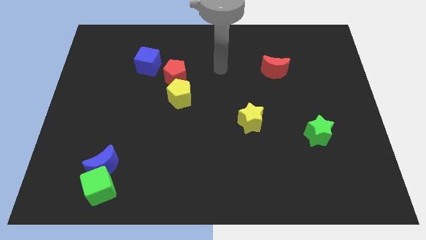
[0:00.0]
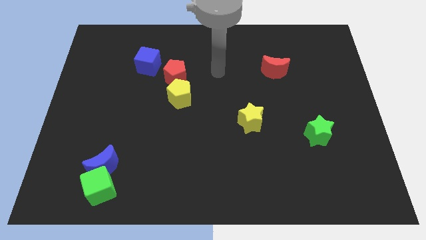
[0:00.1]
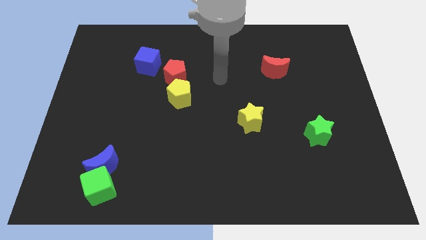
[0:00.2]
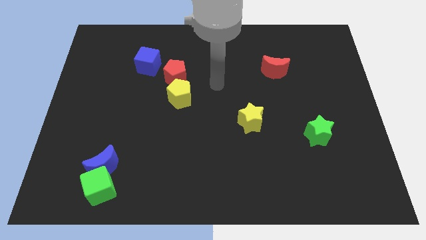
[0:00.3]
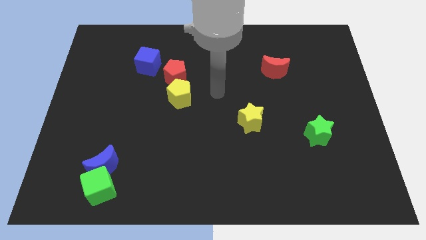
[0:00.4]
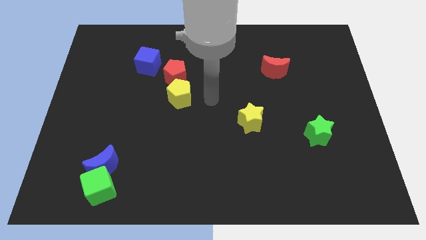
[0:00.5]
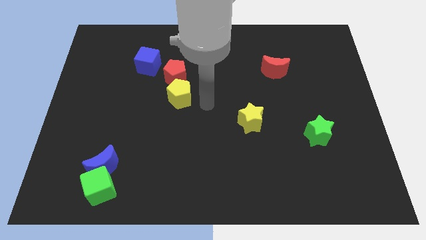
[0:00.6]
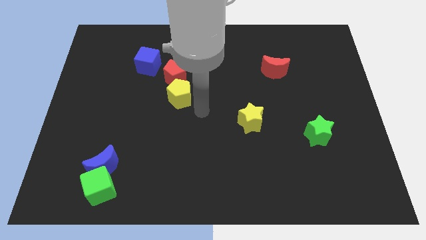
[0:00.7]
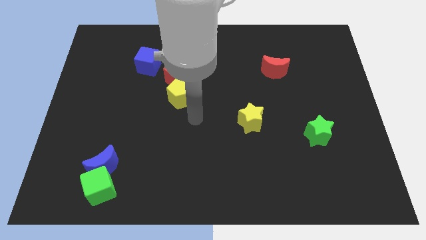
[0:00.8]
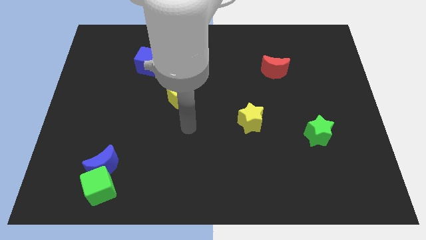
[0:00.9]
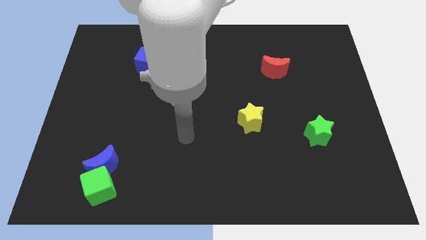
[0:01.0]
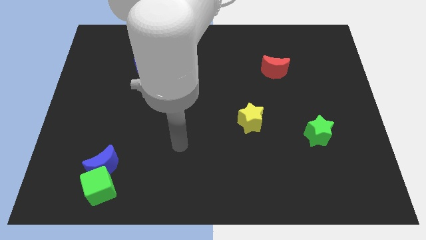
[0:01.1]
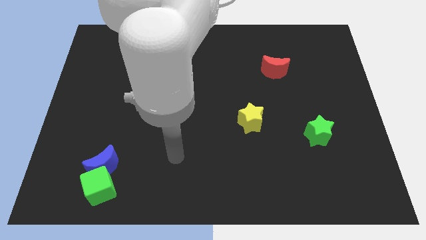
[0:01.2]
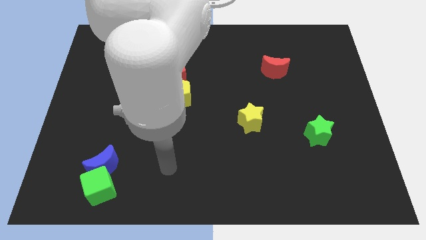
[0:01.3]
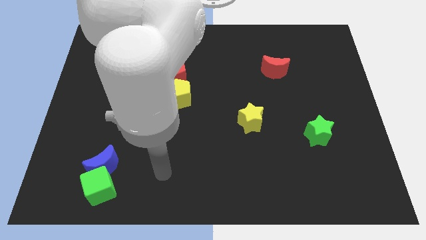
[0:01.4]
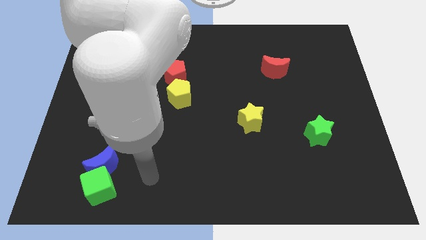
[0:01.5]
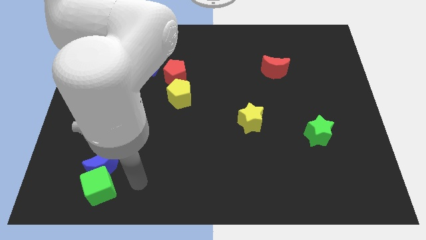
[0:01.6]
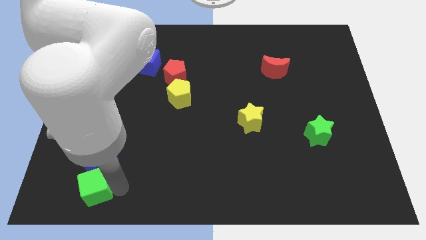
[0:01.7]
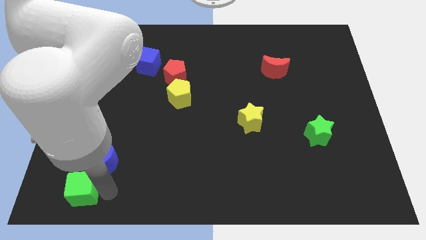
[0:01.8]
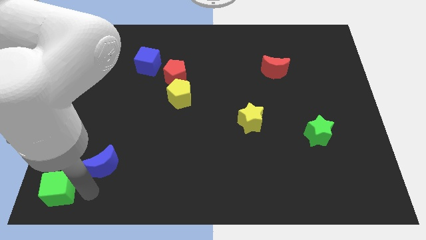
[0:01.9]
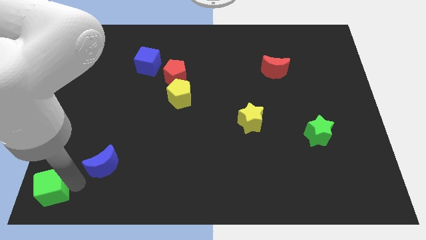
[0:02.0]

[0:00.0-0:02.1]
move the blue moon away from the green cube

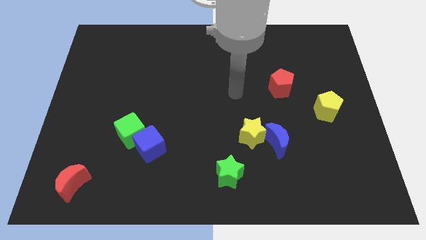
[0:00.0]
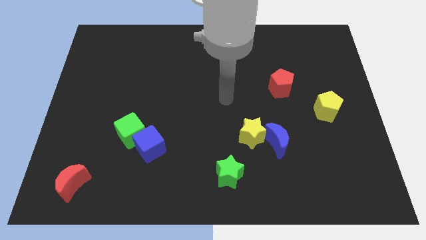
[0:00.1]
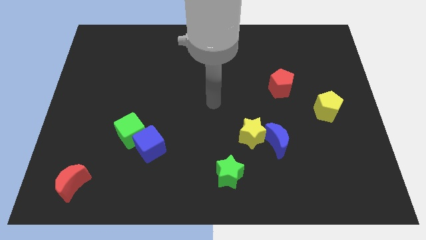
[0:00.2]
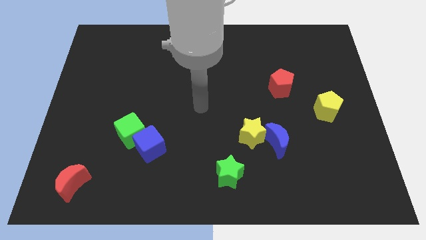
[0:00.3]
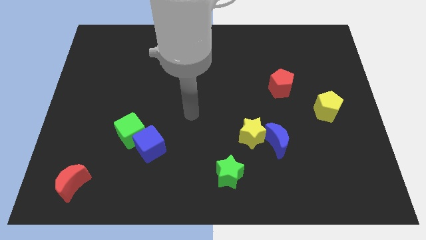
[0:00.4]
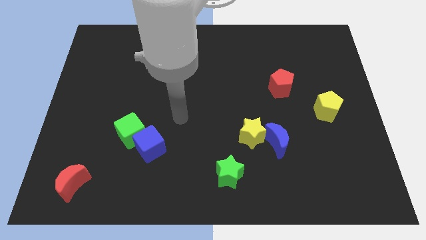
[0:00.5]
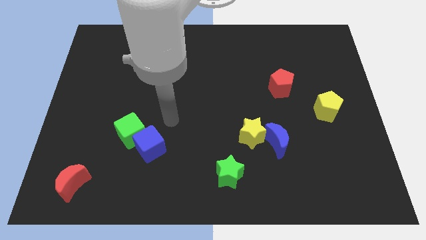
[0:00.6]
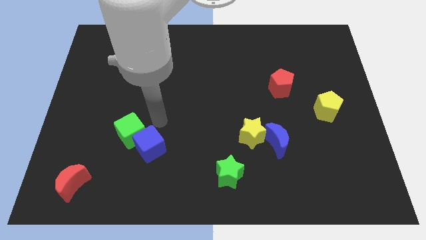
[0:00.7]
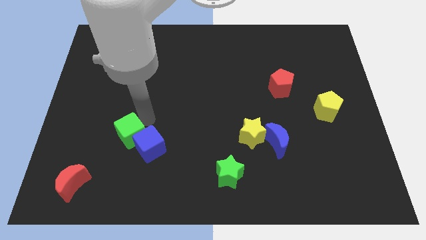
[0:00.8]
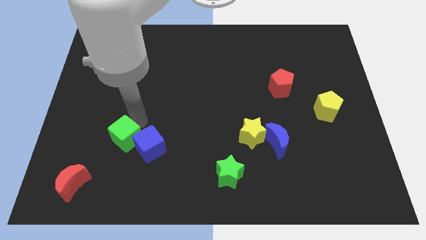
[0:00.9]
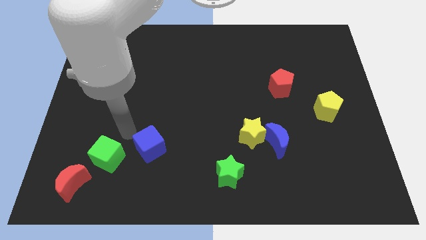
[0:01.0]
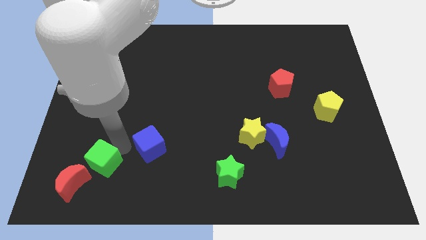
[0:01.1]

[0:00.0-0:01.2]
separate the blue cube from the green cube

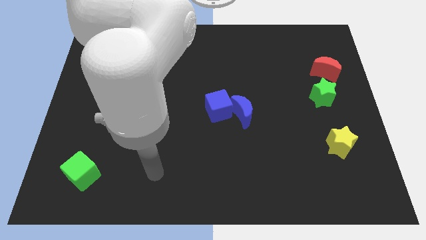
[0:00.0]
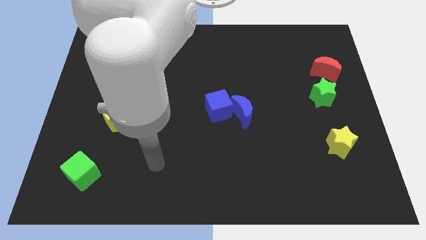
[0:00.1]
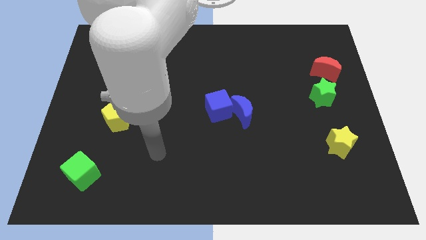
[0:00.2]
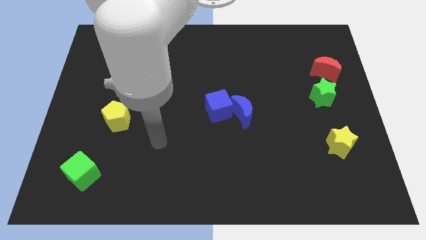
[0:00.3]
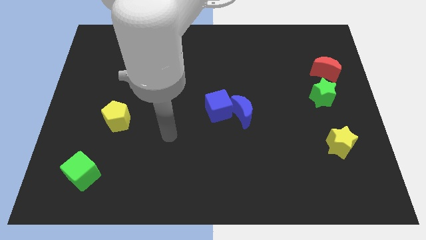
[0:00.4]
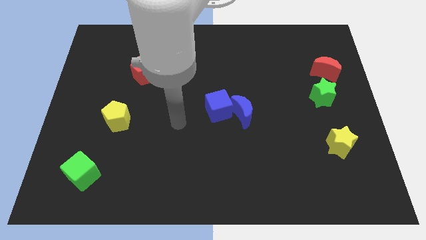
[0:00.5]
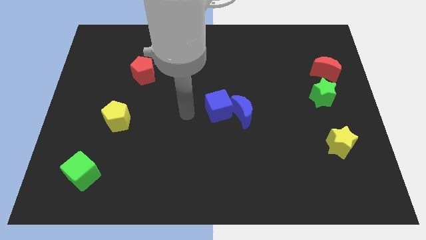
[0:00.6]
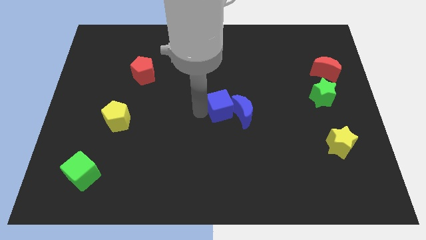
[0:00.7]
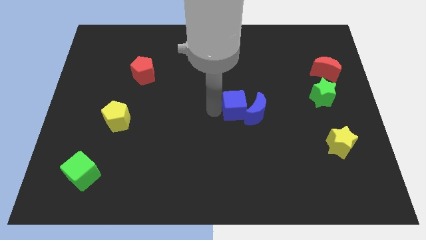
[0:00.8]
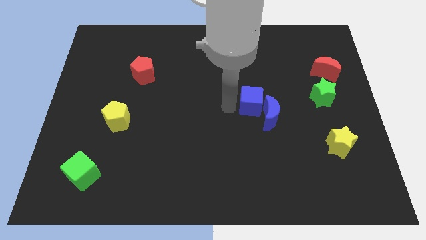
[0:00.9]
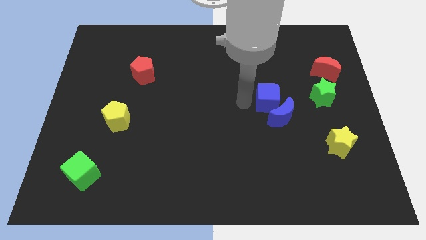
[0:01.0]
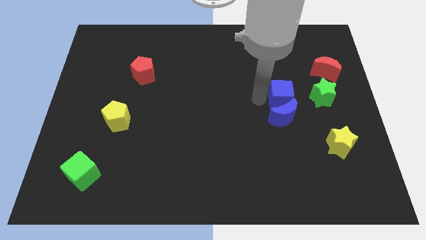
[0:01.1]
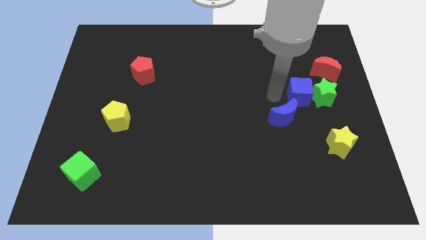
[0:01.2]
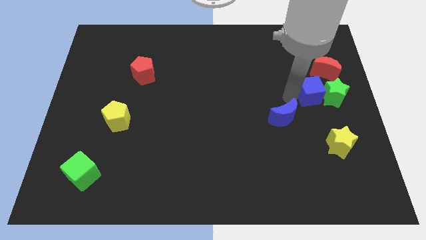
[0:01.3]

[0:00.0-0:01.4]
pull the blue moon apart from the blue cube

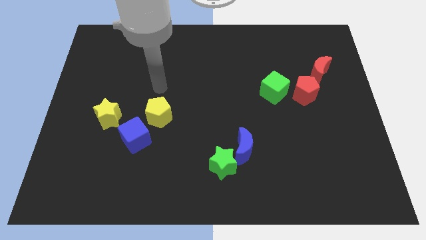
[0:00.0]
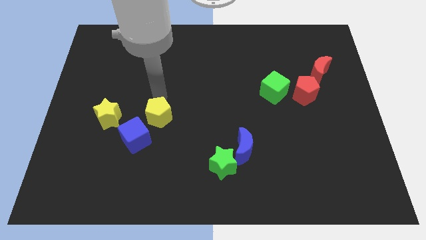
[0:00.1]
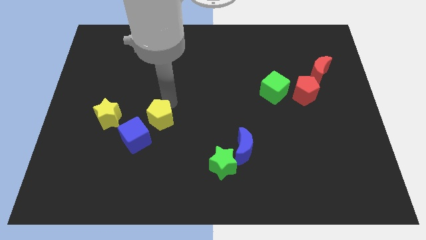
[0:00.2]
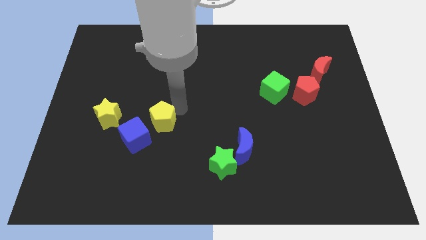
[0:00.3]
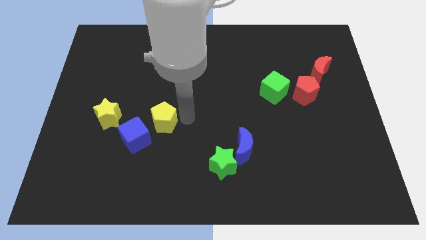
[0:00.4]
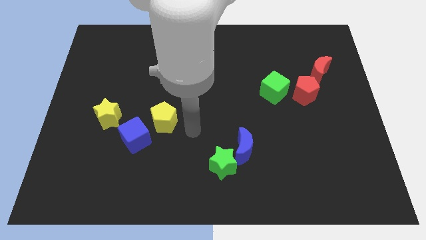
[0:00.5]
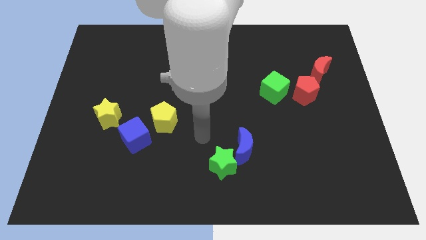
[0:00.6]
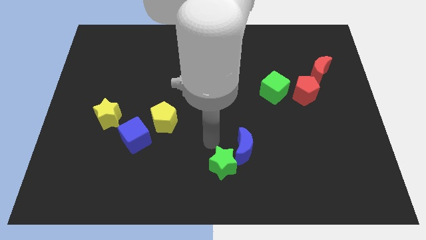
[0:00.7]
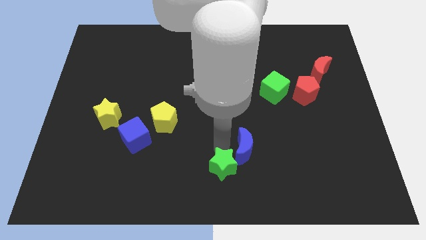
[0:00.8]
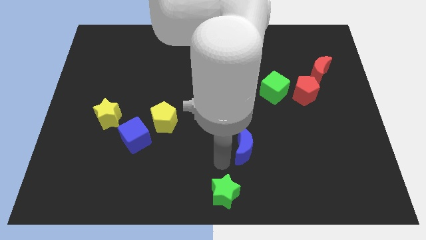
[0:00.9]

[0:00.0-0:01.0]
separate the blue moon from the green star

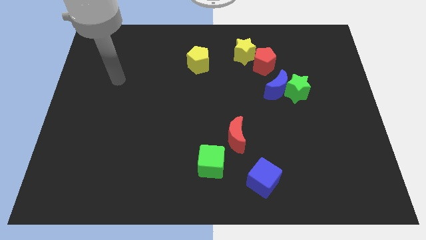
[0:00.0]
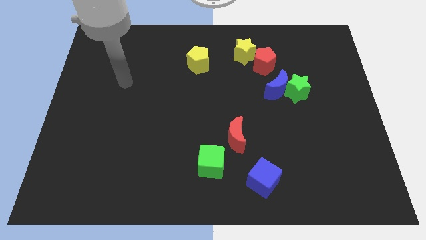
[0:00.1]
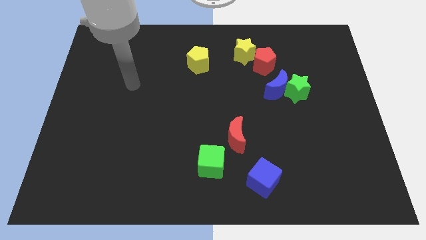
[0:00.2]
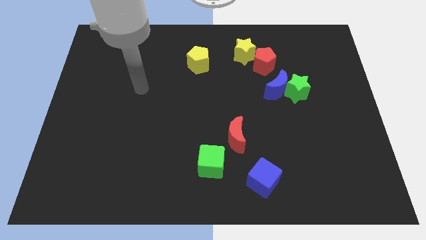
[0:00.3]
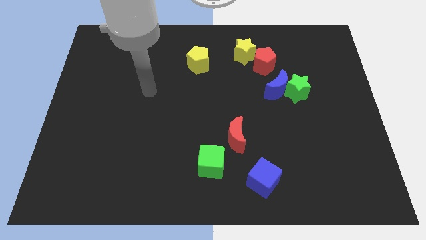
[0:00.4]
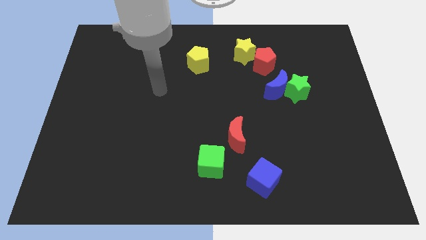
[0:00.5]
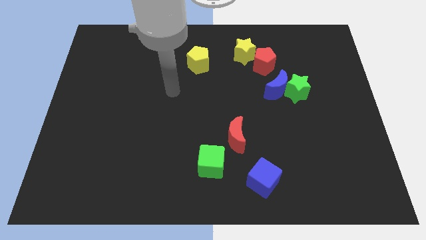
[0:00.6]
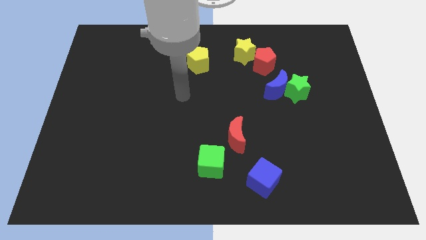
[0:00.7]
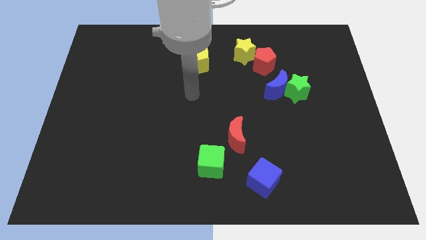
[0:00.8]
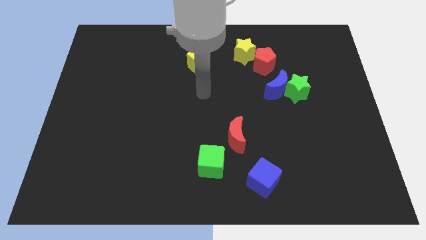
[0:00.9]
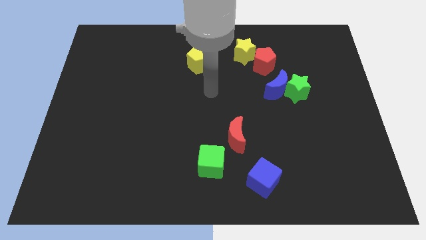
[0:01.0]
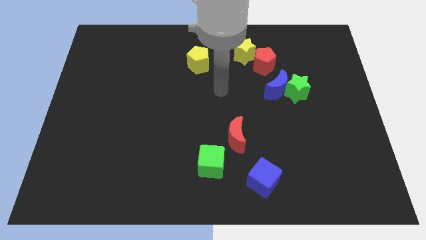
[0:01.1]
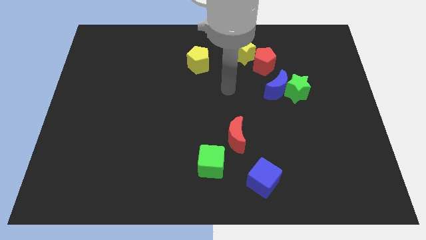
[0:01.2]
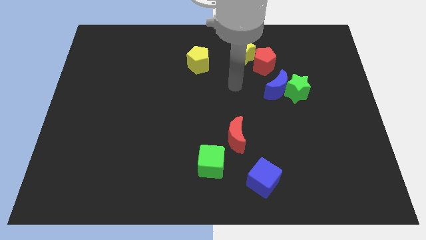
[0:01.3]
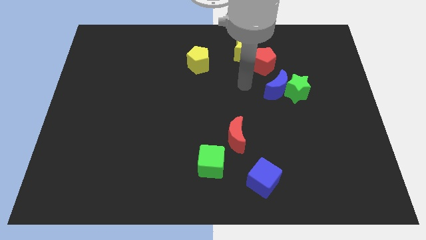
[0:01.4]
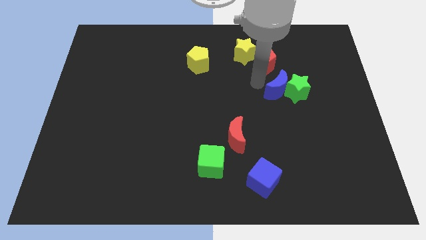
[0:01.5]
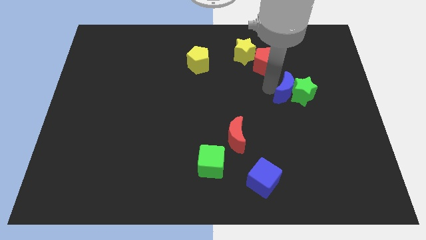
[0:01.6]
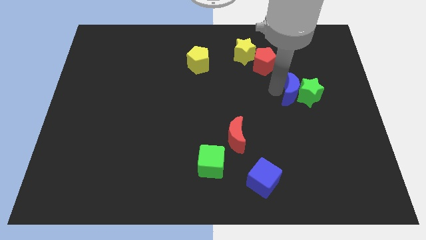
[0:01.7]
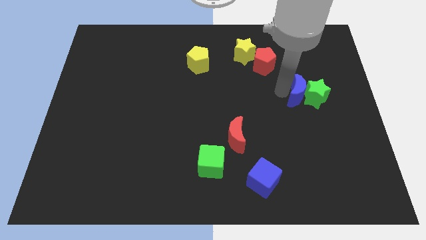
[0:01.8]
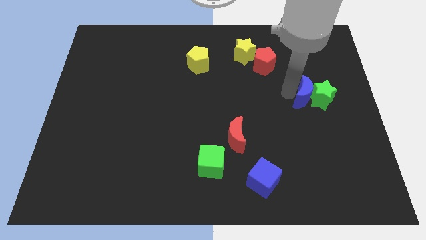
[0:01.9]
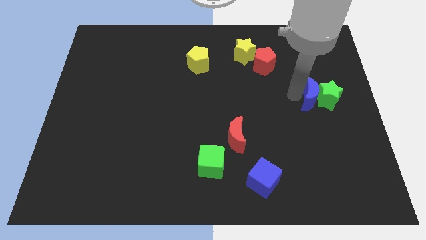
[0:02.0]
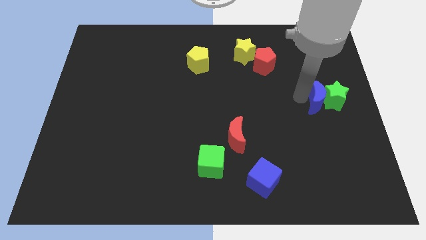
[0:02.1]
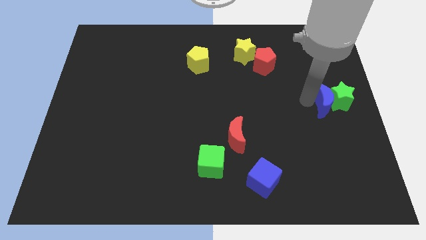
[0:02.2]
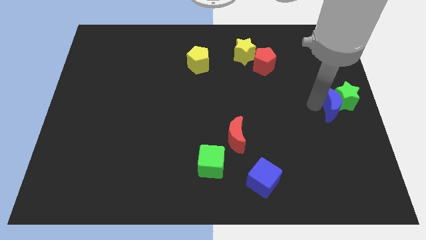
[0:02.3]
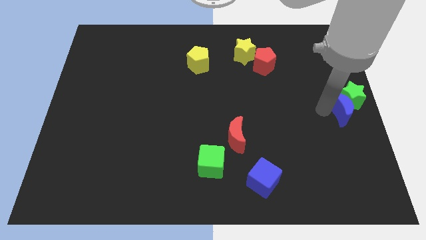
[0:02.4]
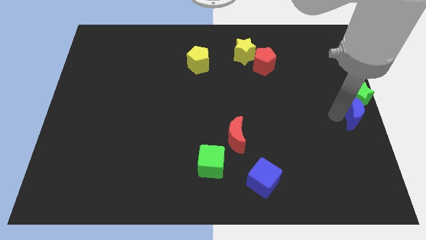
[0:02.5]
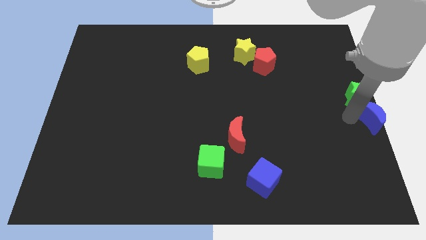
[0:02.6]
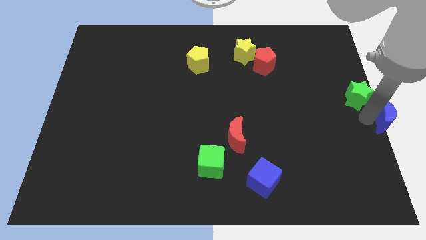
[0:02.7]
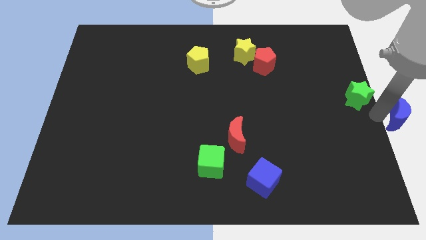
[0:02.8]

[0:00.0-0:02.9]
separate the green star from the blue moon

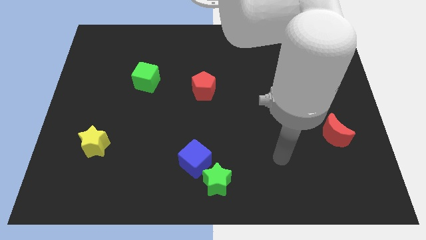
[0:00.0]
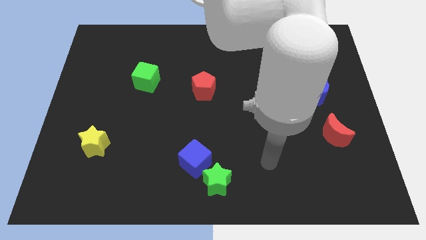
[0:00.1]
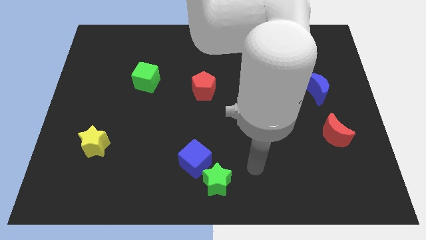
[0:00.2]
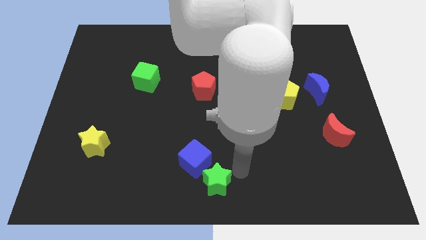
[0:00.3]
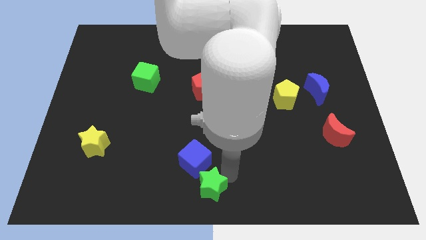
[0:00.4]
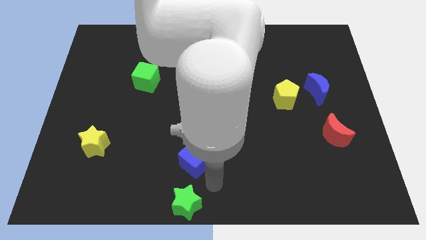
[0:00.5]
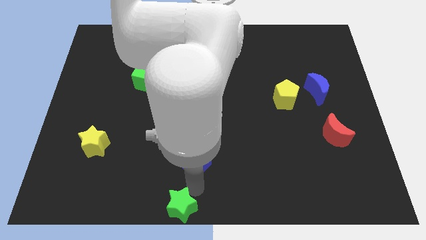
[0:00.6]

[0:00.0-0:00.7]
separate the blue cube from the green star
